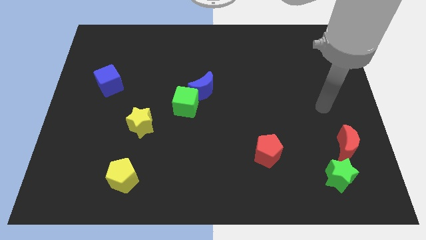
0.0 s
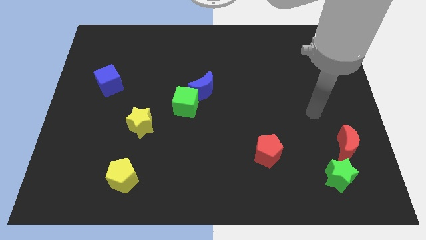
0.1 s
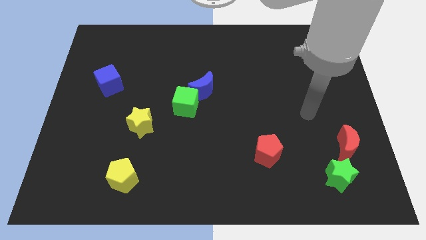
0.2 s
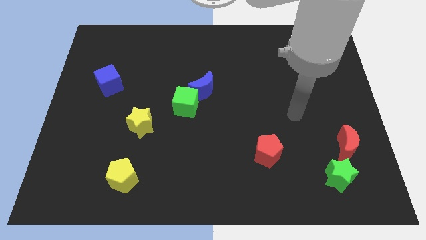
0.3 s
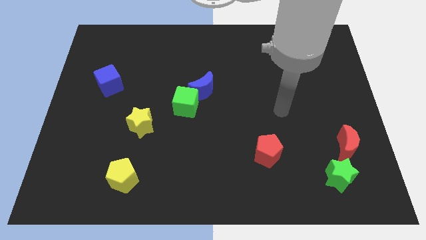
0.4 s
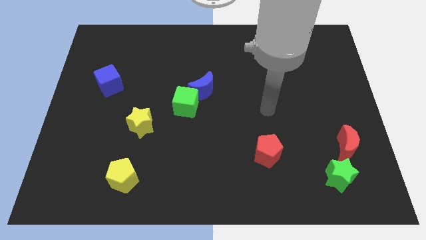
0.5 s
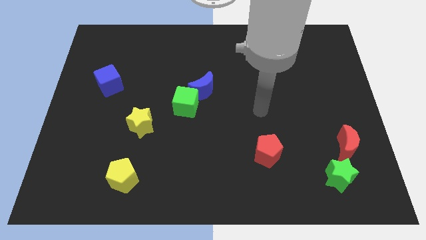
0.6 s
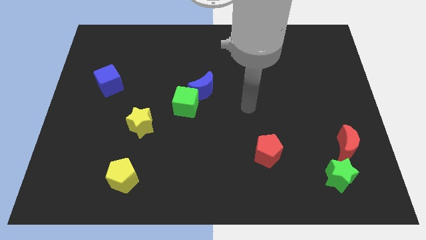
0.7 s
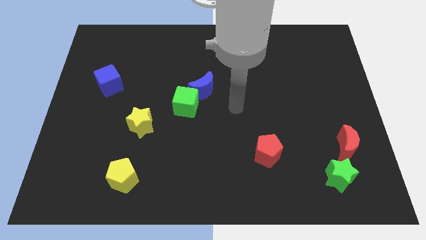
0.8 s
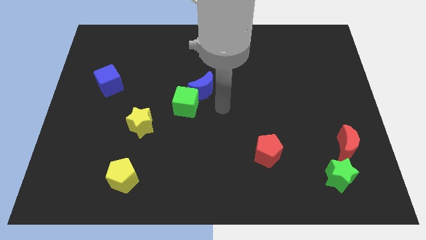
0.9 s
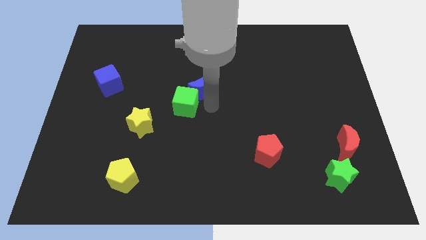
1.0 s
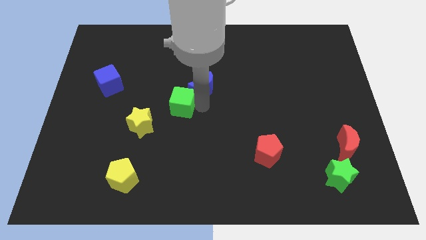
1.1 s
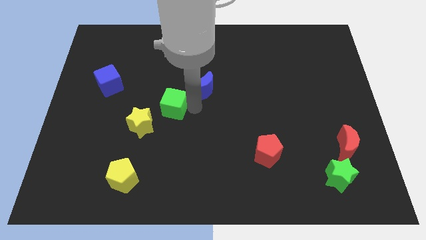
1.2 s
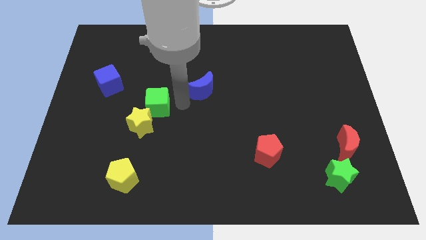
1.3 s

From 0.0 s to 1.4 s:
move the blue moon away from the green cube

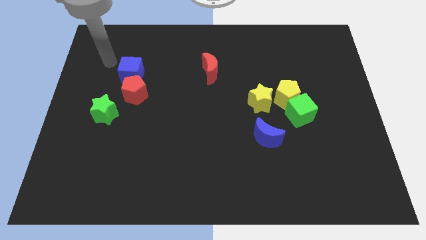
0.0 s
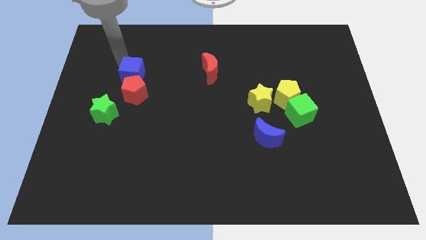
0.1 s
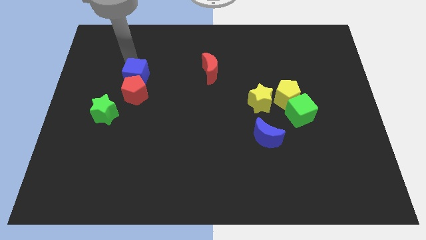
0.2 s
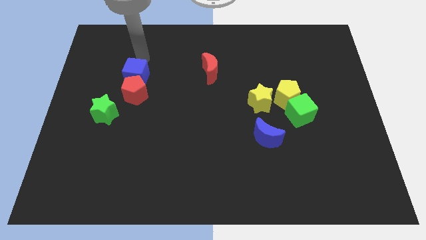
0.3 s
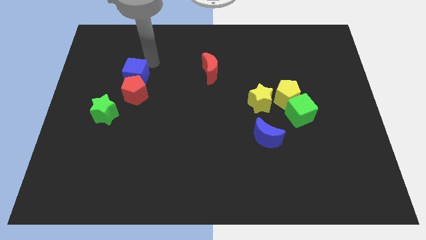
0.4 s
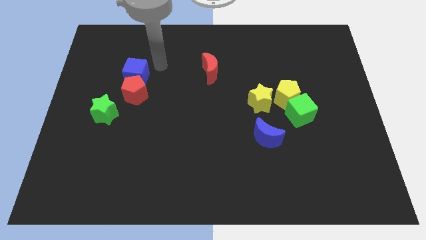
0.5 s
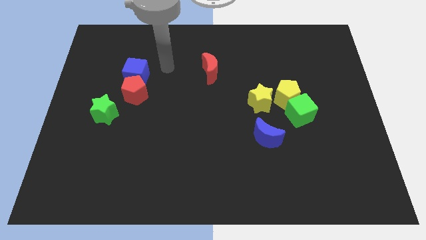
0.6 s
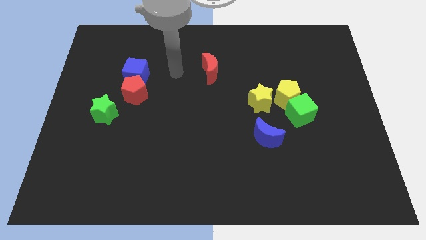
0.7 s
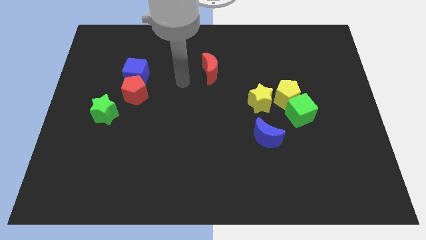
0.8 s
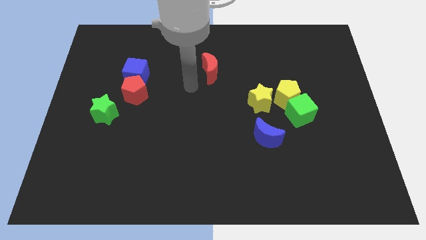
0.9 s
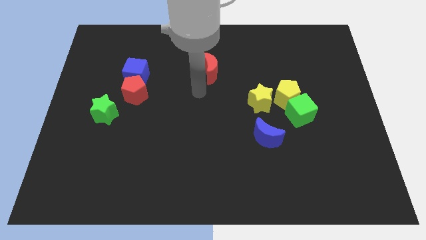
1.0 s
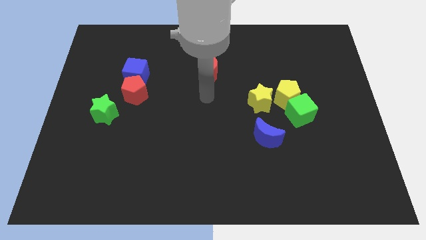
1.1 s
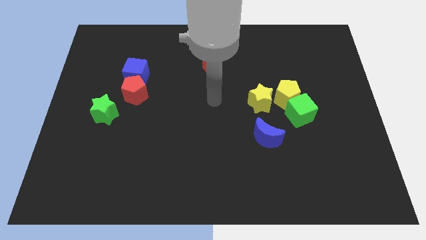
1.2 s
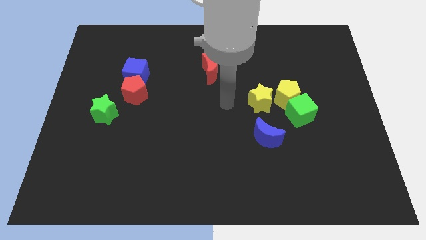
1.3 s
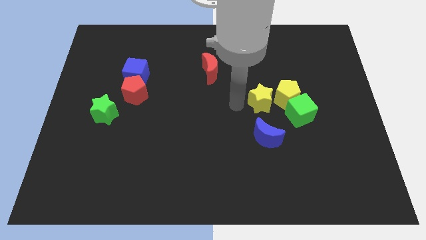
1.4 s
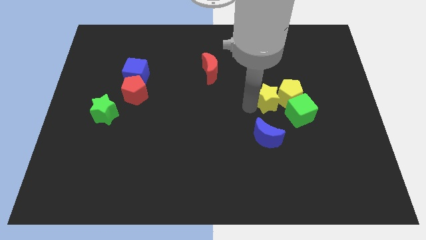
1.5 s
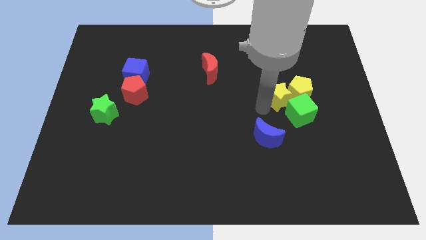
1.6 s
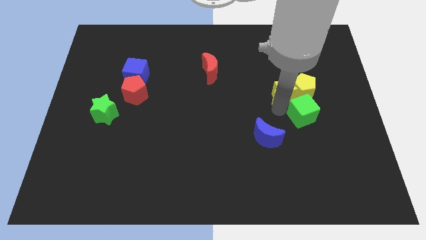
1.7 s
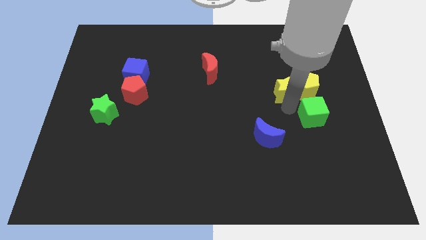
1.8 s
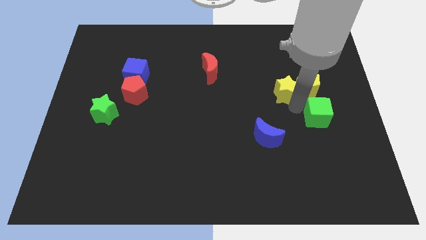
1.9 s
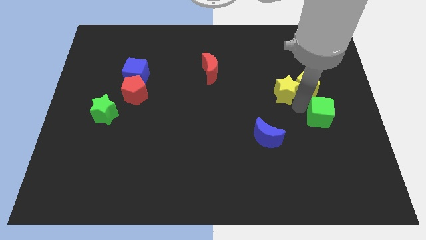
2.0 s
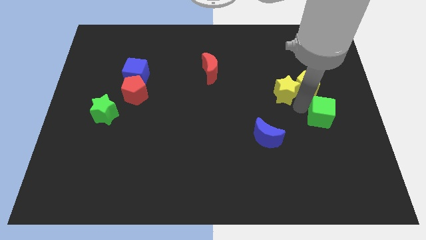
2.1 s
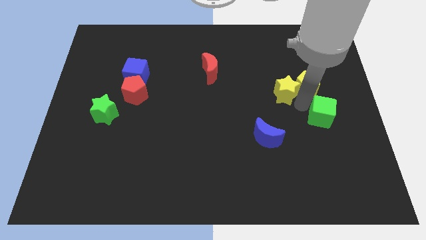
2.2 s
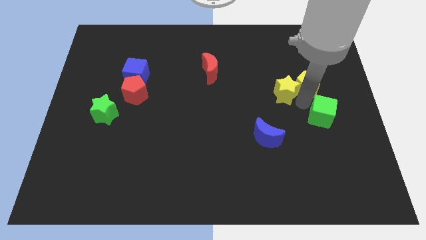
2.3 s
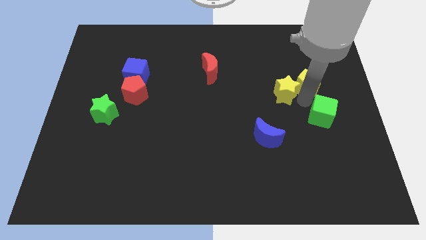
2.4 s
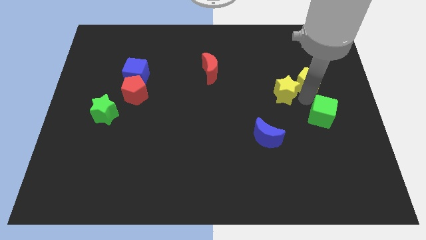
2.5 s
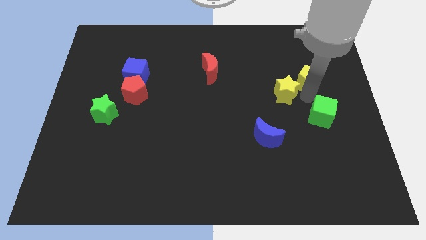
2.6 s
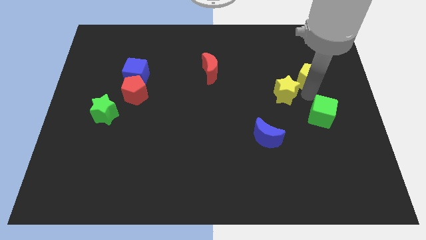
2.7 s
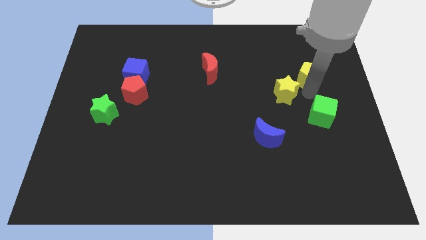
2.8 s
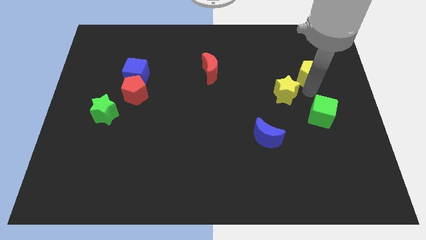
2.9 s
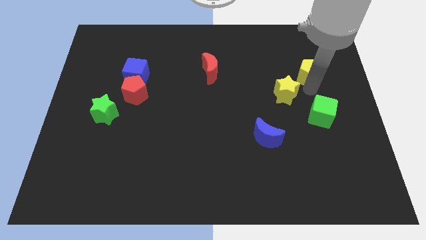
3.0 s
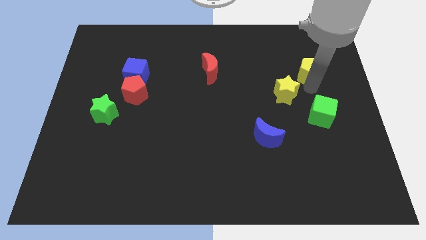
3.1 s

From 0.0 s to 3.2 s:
move the yellow pentagon away from the green cube and yellow star

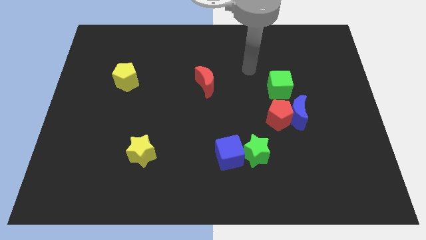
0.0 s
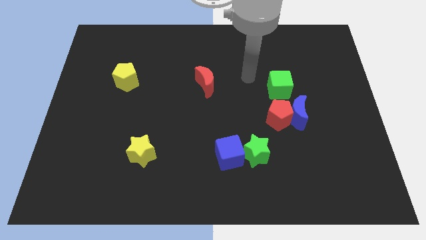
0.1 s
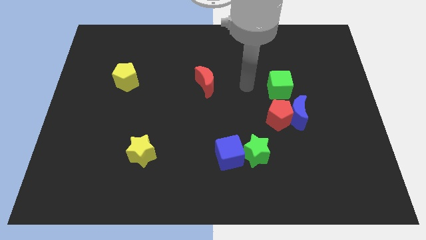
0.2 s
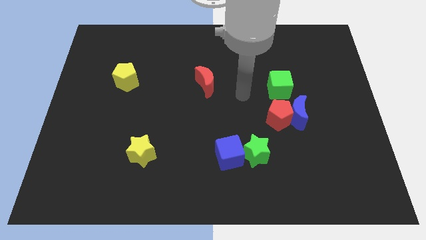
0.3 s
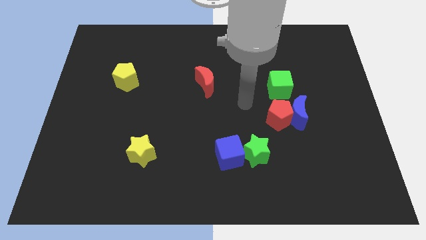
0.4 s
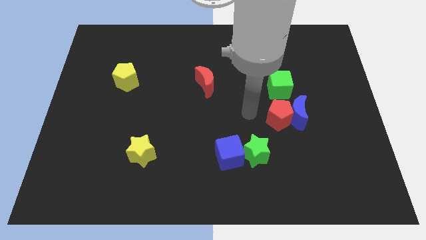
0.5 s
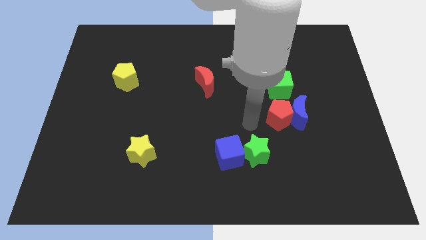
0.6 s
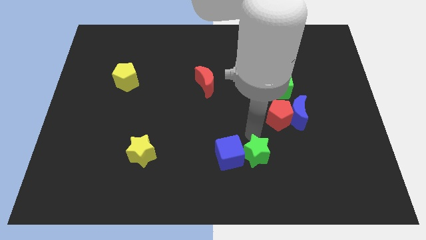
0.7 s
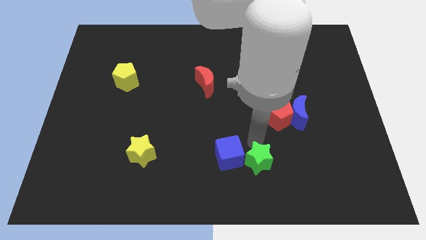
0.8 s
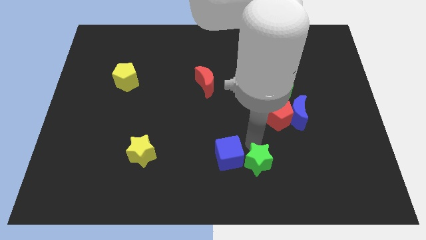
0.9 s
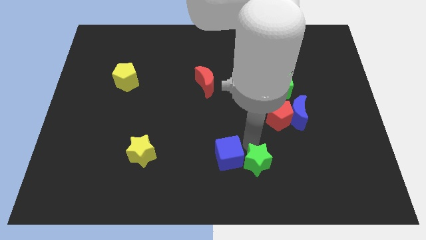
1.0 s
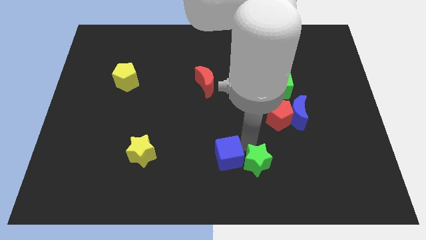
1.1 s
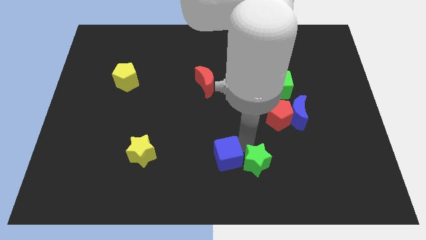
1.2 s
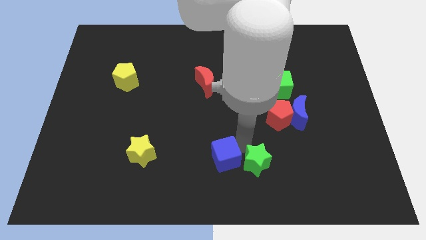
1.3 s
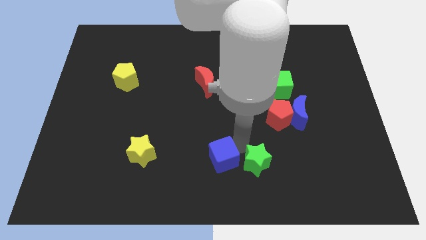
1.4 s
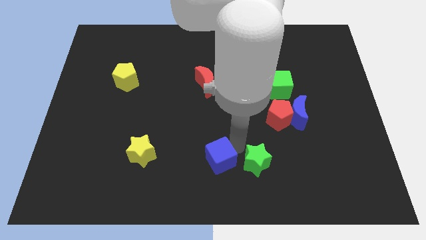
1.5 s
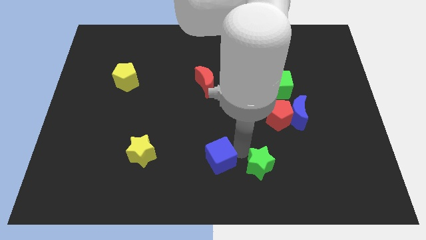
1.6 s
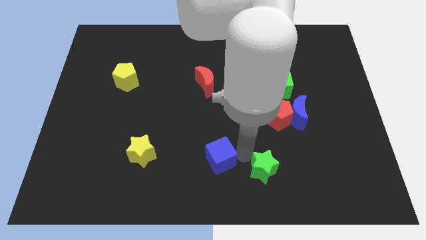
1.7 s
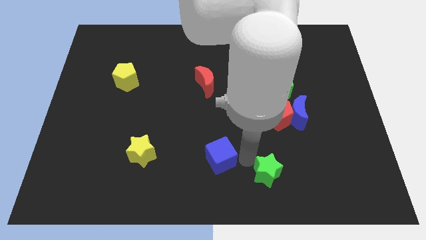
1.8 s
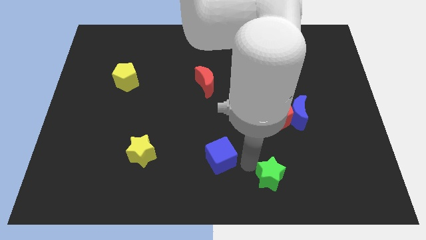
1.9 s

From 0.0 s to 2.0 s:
move the blue cube away from the green star

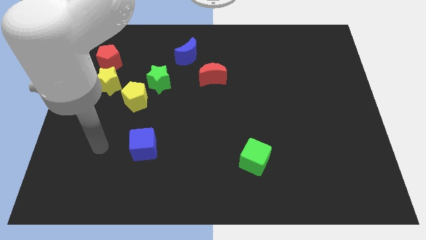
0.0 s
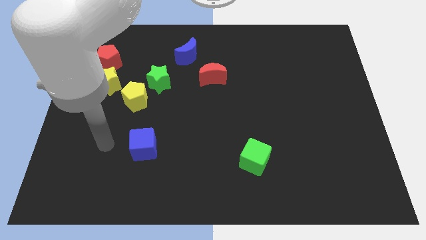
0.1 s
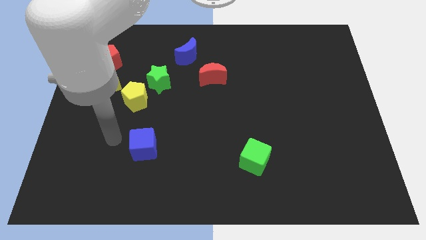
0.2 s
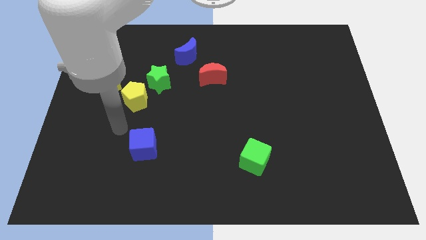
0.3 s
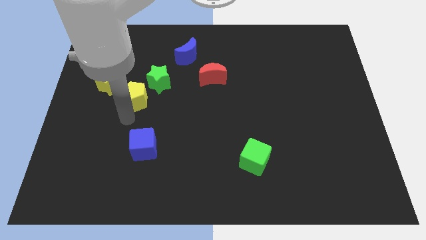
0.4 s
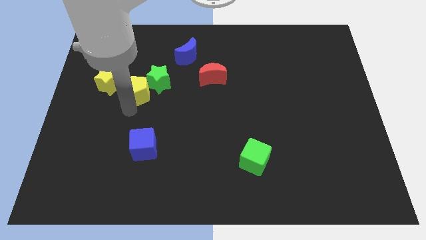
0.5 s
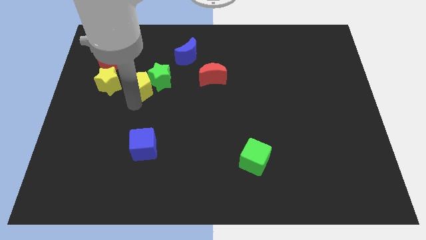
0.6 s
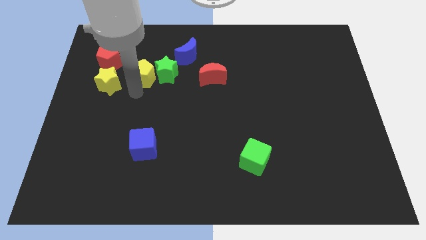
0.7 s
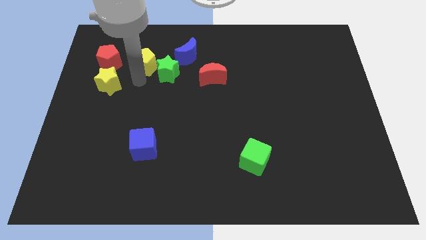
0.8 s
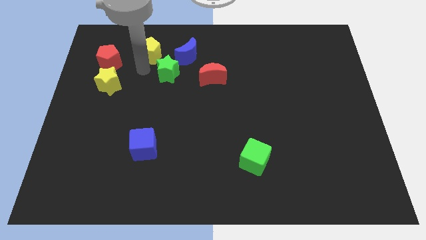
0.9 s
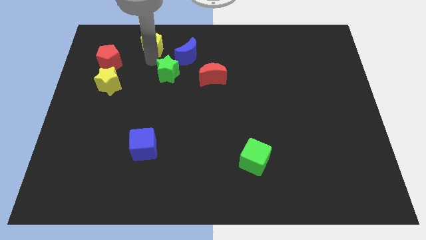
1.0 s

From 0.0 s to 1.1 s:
pull the green star apart from the yellow pentagon

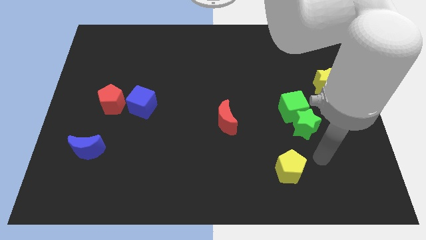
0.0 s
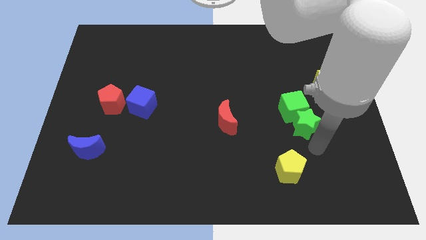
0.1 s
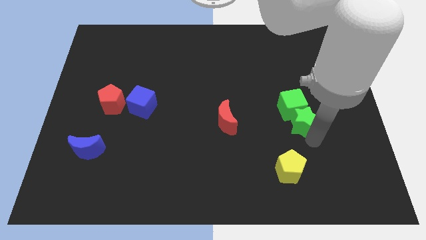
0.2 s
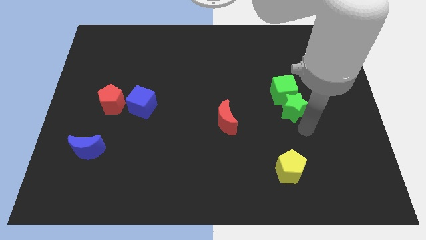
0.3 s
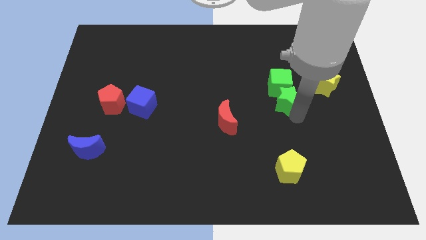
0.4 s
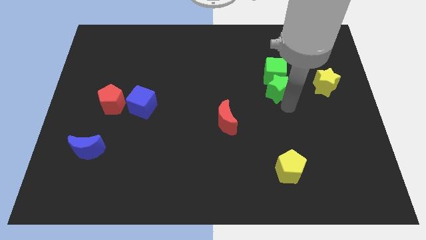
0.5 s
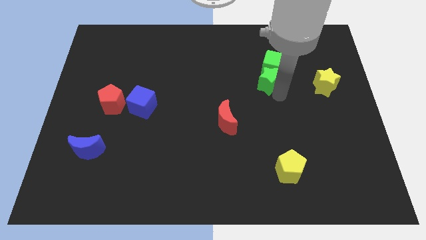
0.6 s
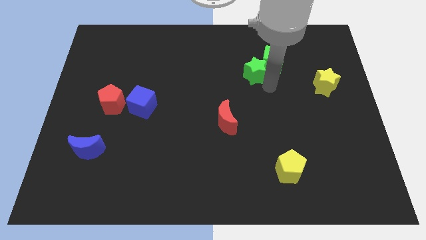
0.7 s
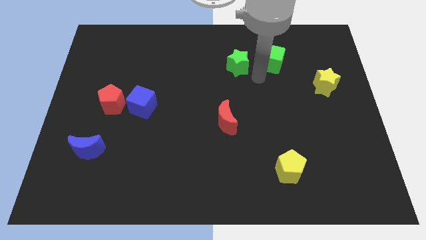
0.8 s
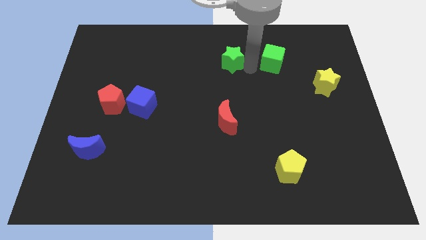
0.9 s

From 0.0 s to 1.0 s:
move the green cube away from the green star

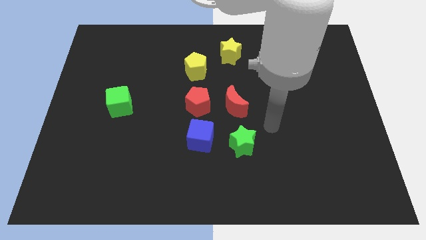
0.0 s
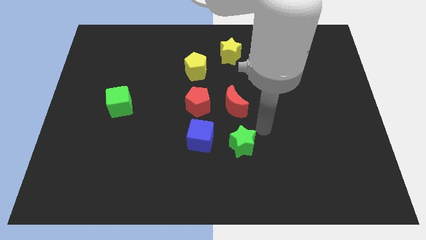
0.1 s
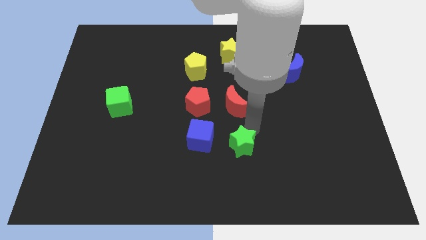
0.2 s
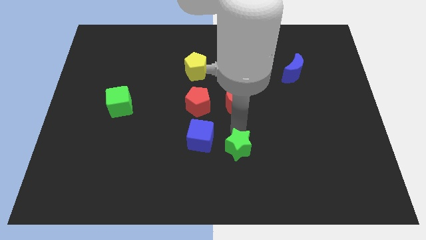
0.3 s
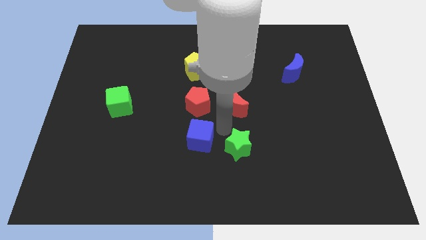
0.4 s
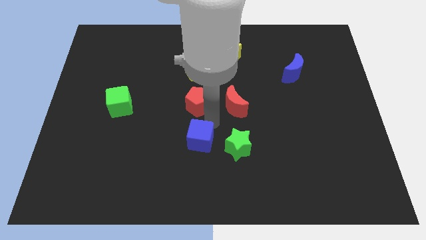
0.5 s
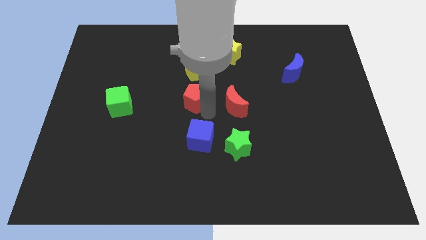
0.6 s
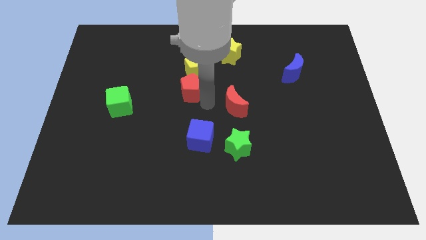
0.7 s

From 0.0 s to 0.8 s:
move the red moon away from the red pentagon
